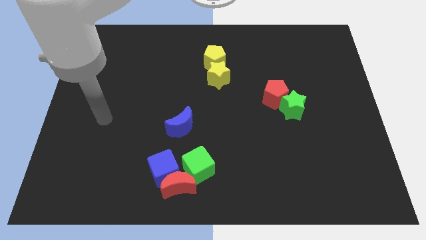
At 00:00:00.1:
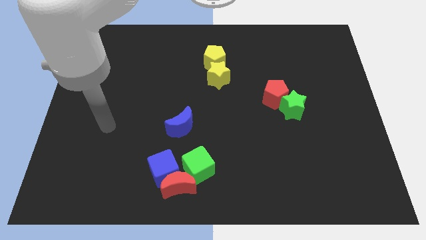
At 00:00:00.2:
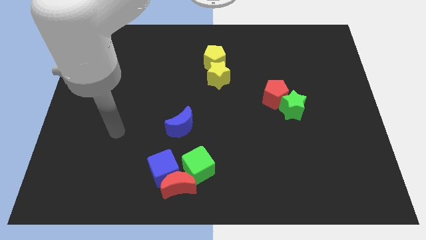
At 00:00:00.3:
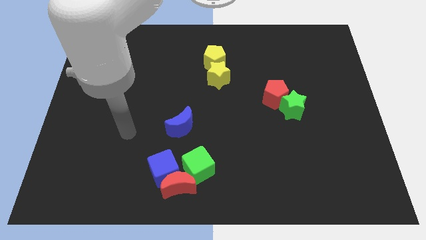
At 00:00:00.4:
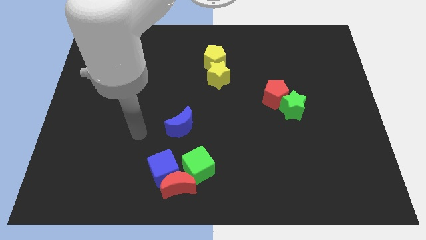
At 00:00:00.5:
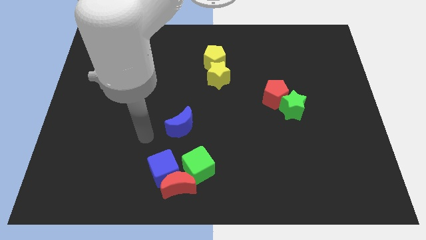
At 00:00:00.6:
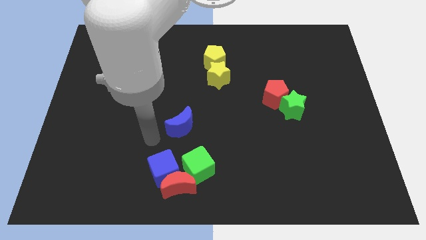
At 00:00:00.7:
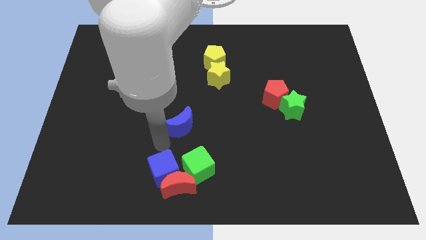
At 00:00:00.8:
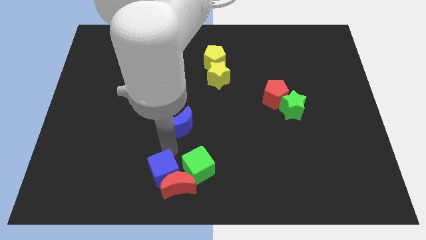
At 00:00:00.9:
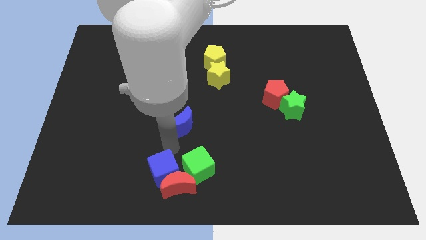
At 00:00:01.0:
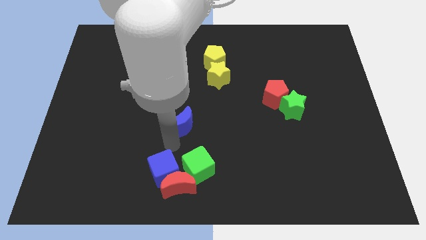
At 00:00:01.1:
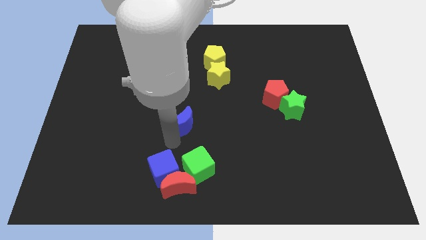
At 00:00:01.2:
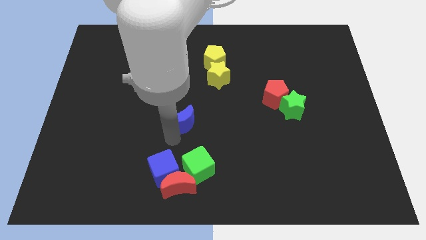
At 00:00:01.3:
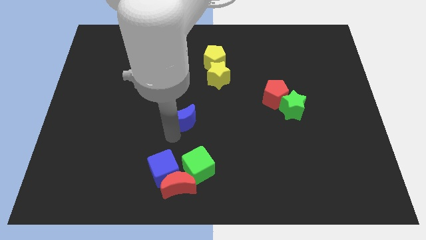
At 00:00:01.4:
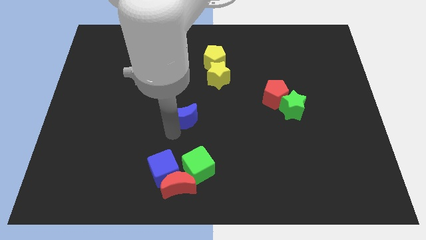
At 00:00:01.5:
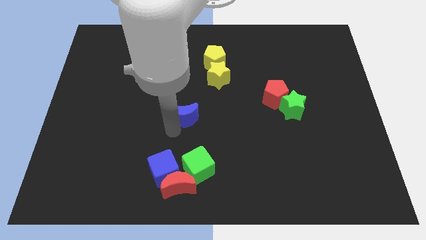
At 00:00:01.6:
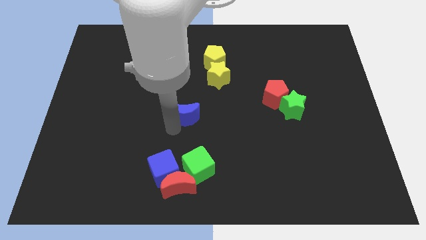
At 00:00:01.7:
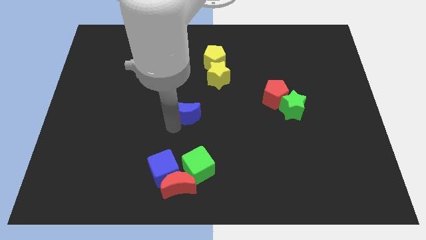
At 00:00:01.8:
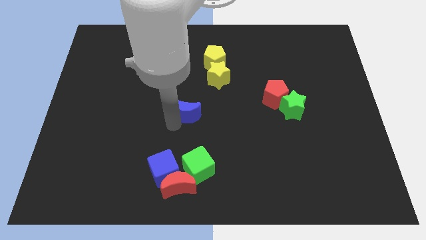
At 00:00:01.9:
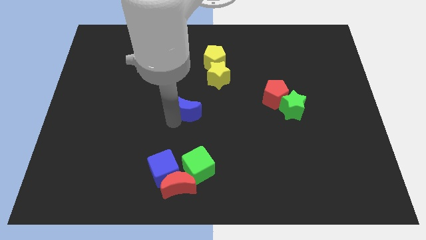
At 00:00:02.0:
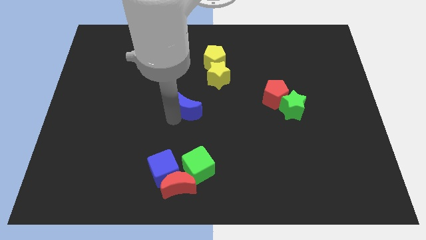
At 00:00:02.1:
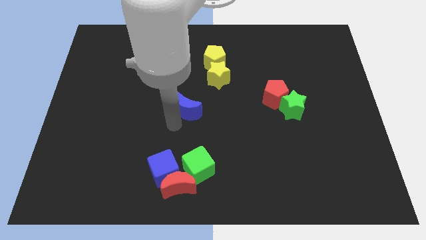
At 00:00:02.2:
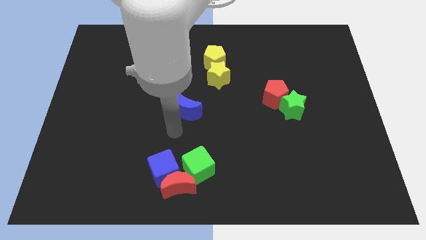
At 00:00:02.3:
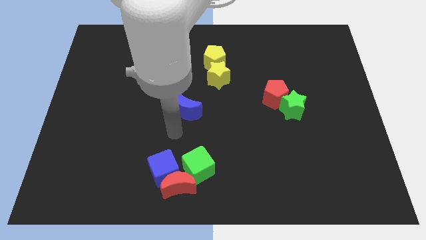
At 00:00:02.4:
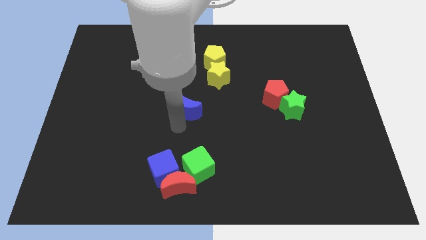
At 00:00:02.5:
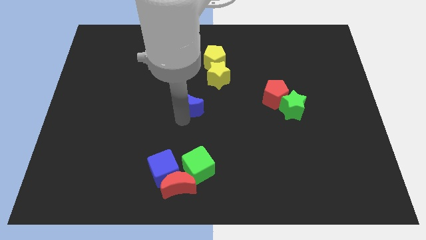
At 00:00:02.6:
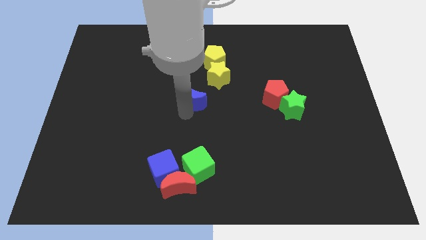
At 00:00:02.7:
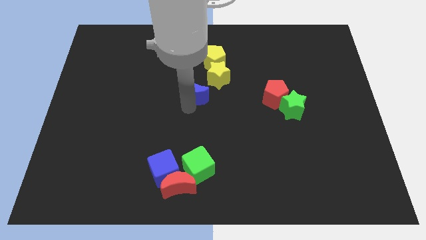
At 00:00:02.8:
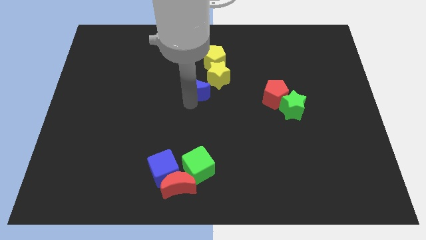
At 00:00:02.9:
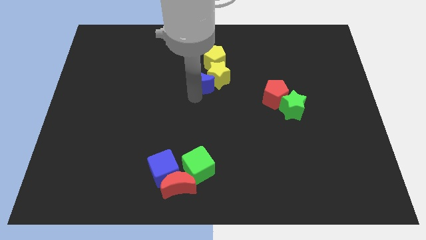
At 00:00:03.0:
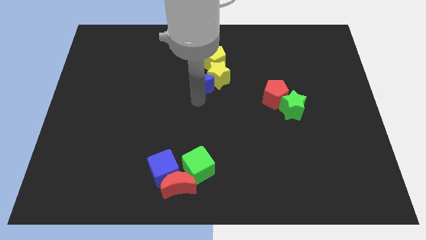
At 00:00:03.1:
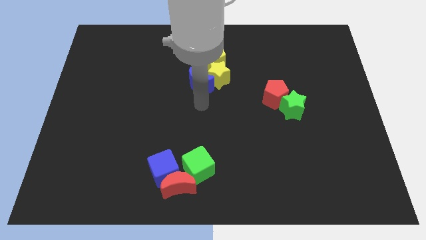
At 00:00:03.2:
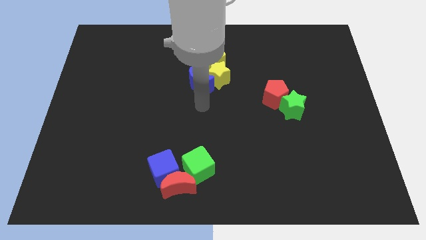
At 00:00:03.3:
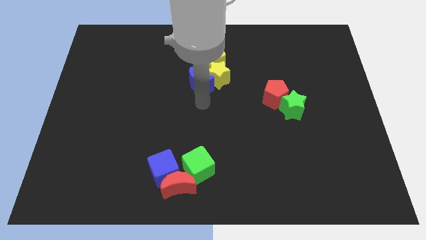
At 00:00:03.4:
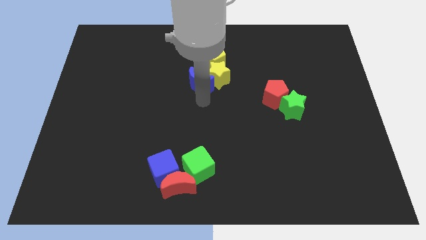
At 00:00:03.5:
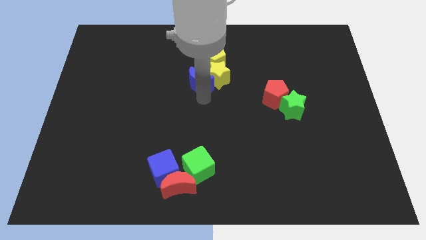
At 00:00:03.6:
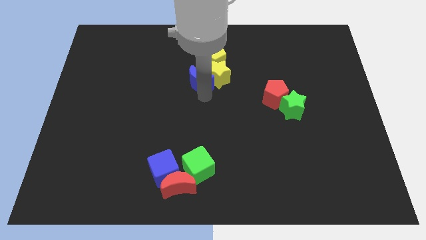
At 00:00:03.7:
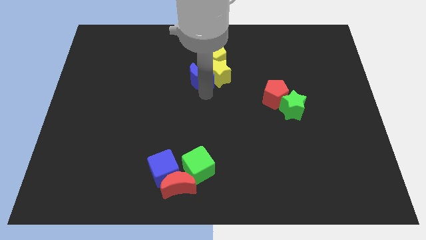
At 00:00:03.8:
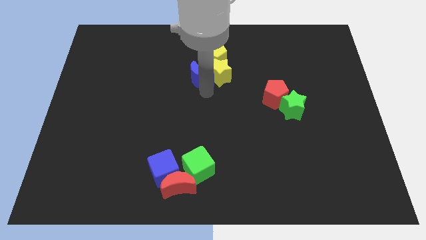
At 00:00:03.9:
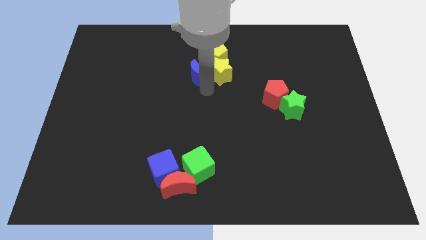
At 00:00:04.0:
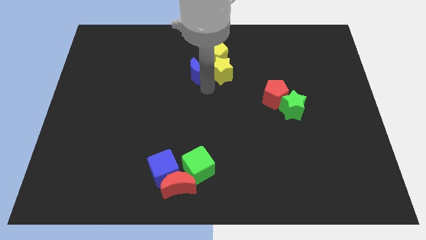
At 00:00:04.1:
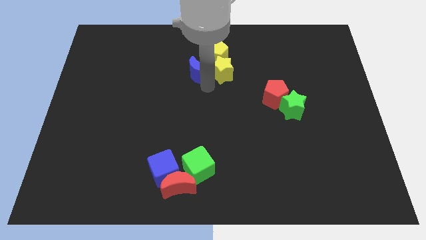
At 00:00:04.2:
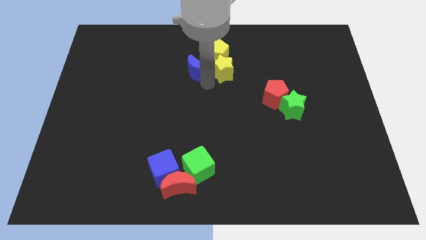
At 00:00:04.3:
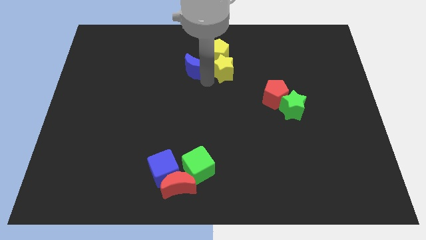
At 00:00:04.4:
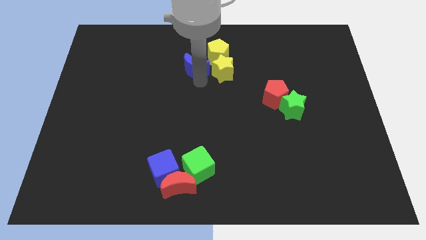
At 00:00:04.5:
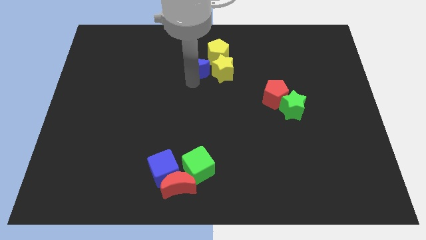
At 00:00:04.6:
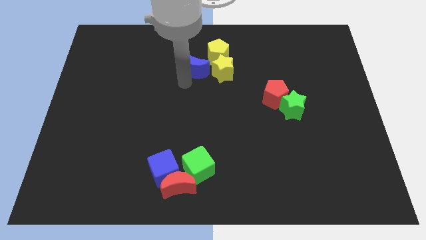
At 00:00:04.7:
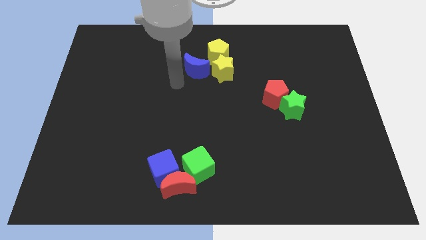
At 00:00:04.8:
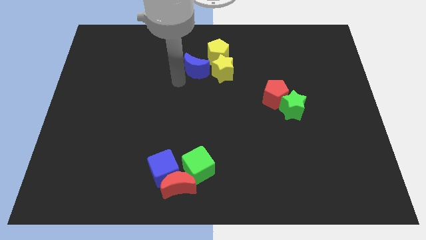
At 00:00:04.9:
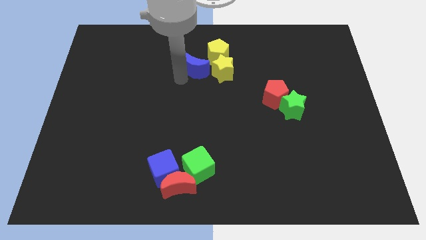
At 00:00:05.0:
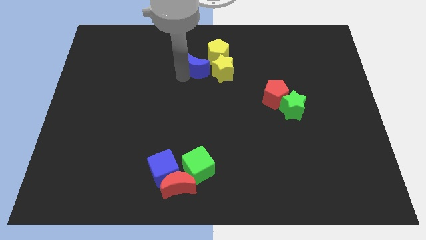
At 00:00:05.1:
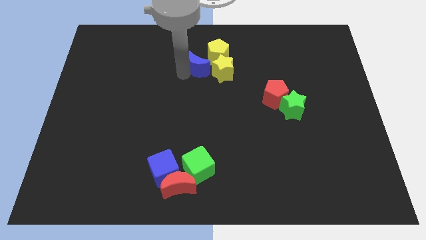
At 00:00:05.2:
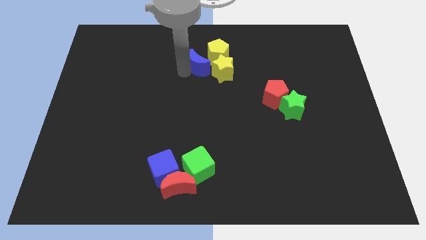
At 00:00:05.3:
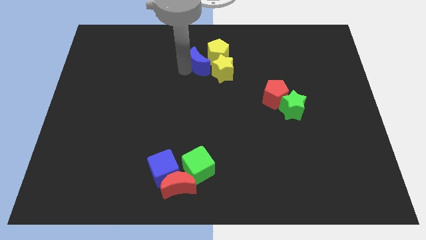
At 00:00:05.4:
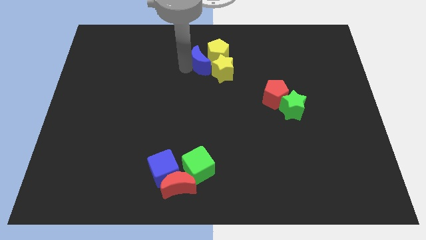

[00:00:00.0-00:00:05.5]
move the blue moon next to the yellow pentagon

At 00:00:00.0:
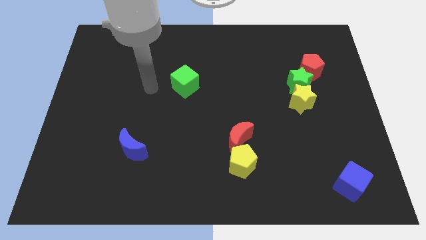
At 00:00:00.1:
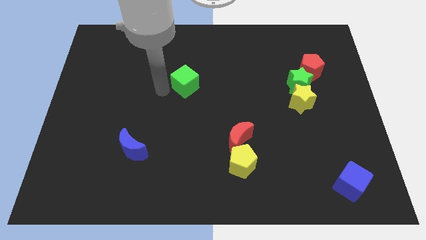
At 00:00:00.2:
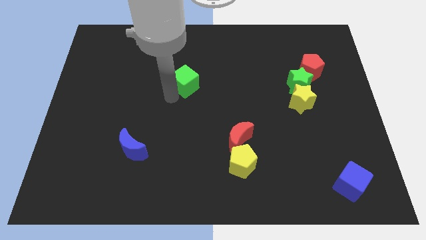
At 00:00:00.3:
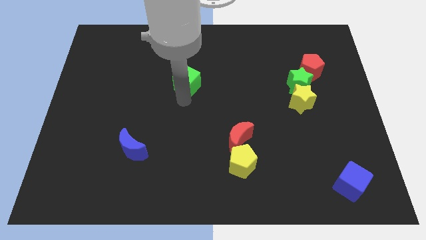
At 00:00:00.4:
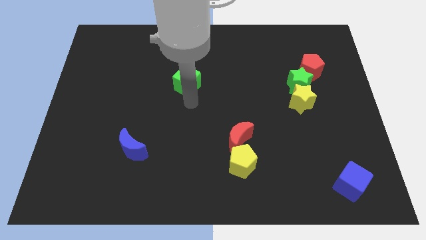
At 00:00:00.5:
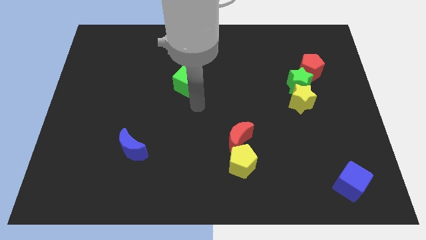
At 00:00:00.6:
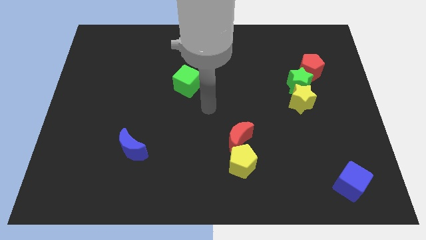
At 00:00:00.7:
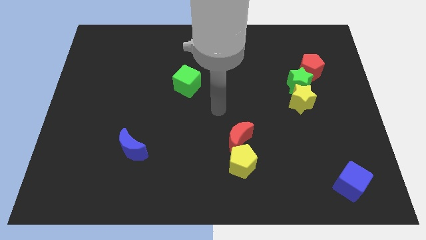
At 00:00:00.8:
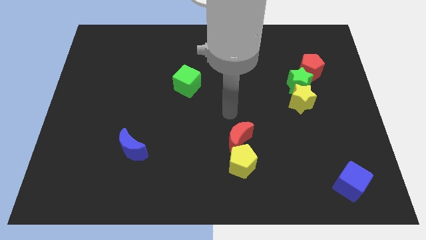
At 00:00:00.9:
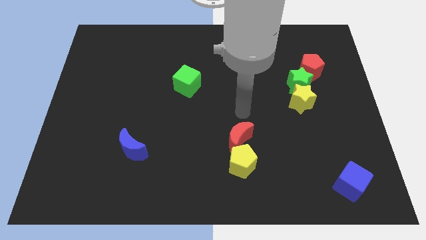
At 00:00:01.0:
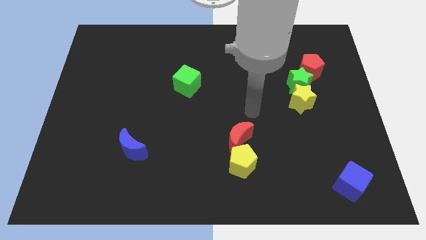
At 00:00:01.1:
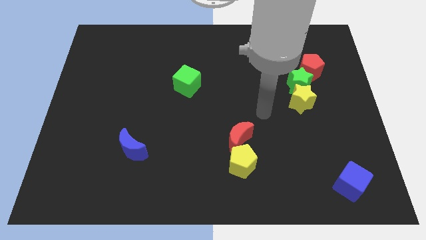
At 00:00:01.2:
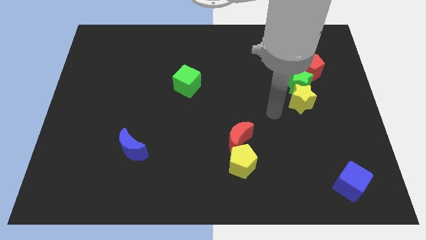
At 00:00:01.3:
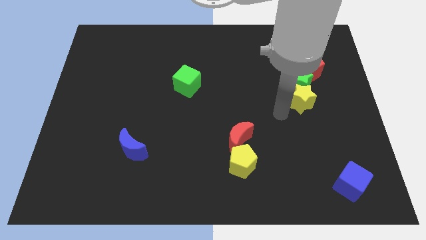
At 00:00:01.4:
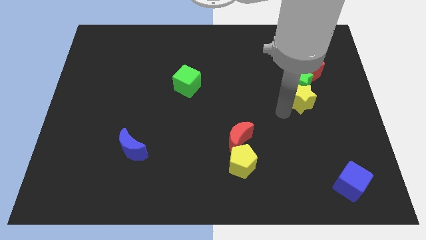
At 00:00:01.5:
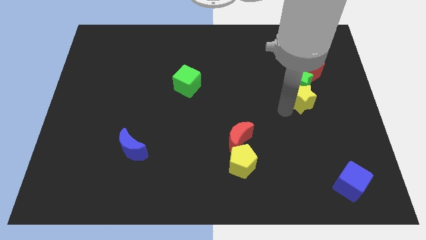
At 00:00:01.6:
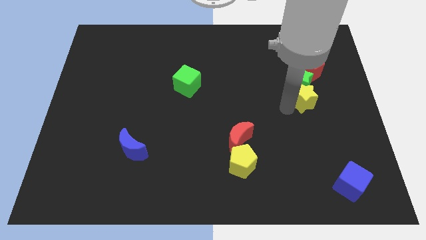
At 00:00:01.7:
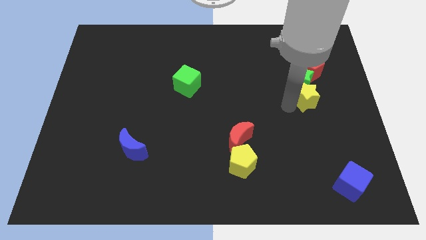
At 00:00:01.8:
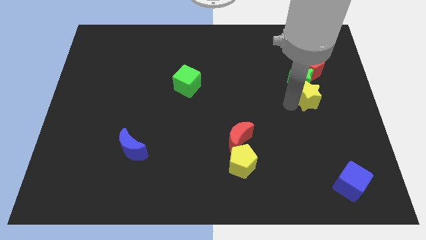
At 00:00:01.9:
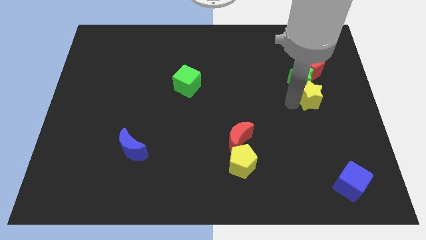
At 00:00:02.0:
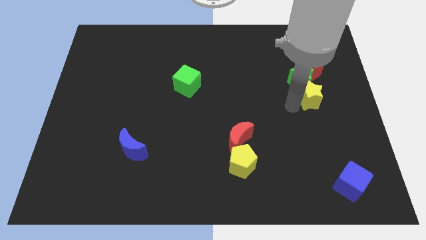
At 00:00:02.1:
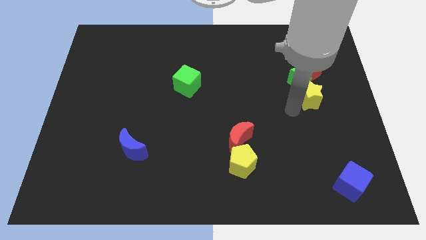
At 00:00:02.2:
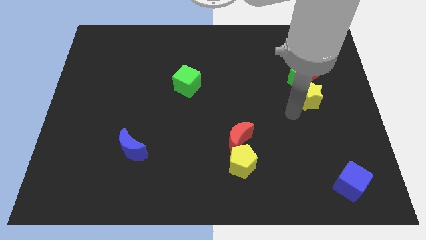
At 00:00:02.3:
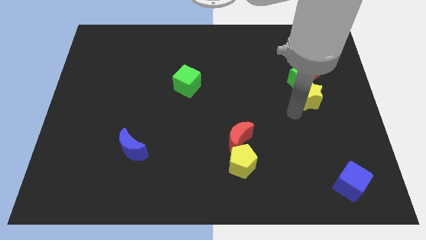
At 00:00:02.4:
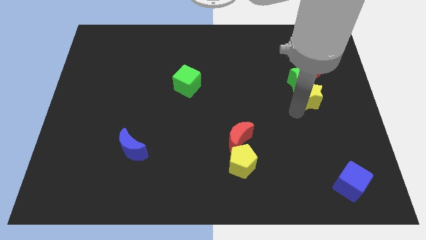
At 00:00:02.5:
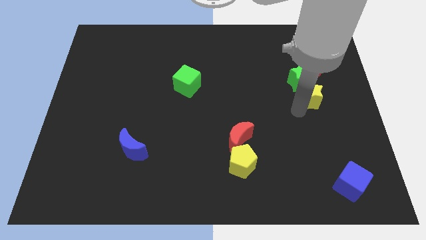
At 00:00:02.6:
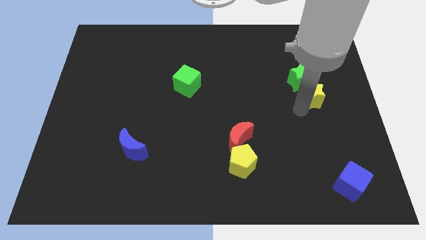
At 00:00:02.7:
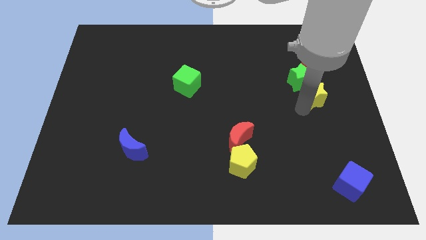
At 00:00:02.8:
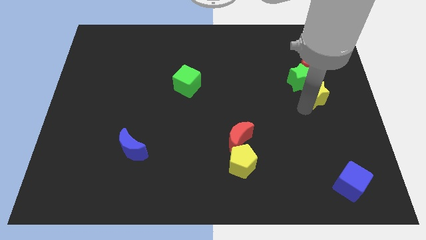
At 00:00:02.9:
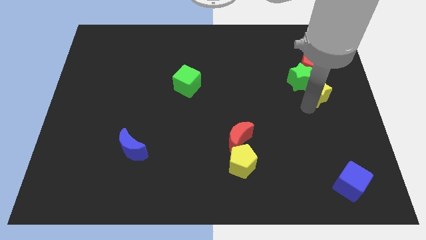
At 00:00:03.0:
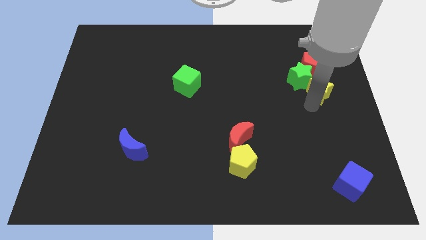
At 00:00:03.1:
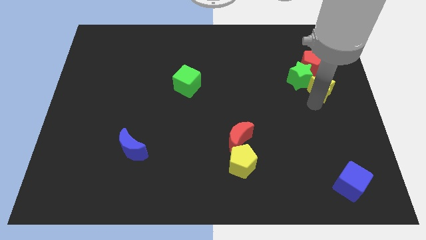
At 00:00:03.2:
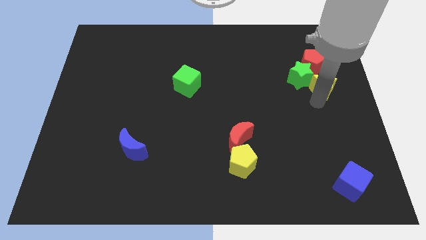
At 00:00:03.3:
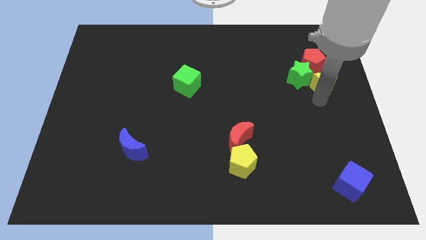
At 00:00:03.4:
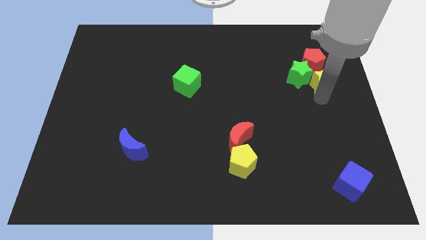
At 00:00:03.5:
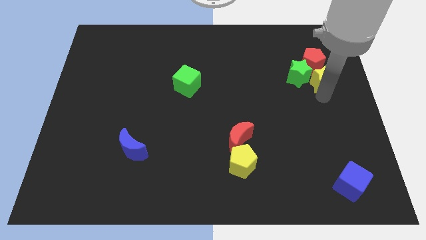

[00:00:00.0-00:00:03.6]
move the yellow star close to the red pentagon
